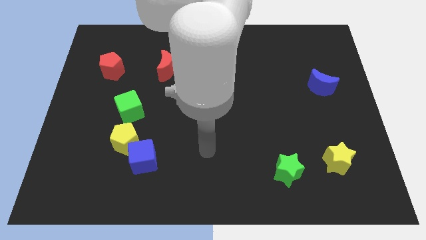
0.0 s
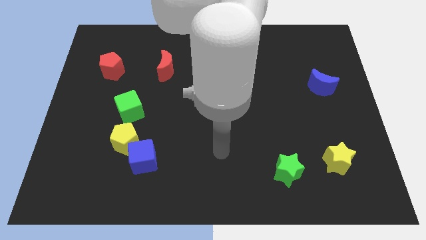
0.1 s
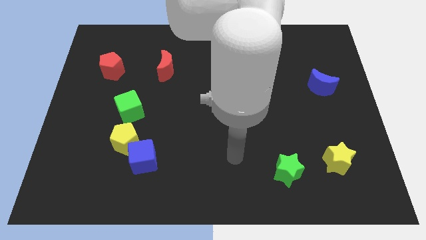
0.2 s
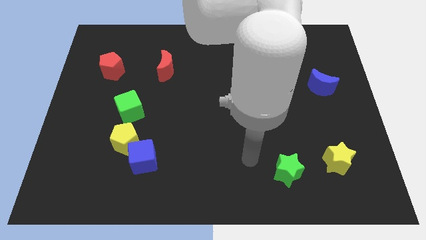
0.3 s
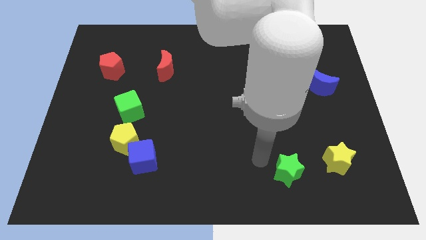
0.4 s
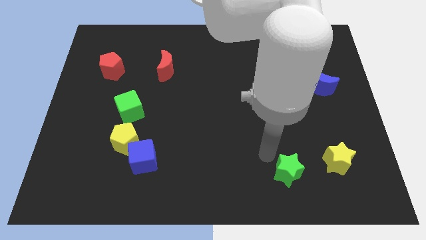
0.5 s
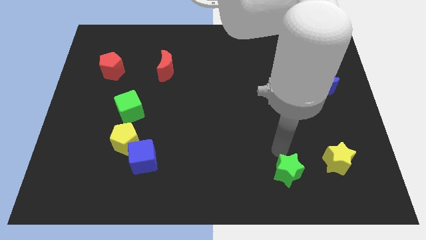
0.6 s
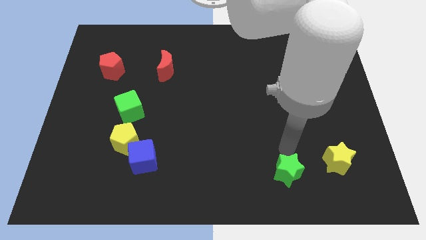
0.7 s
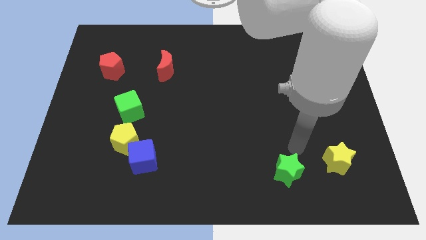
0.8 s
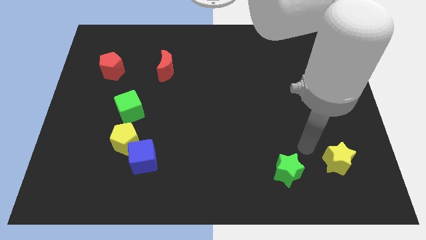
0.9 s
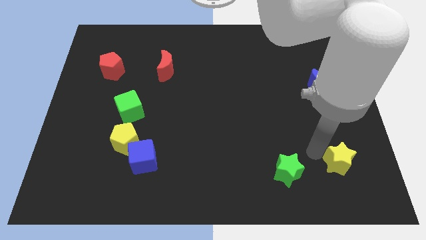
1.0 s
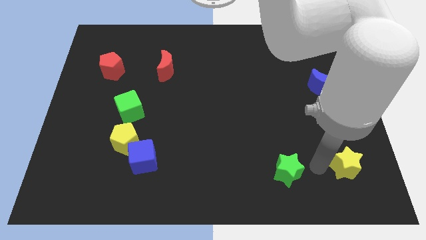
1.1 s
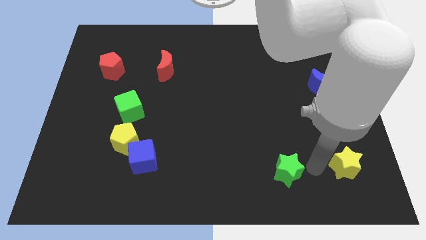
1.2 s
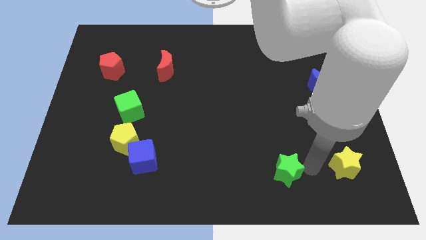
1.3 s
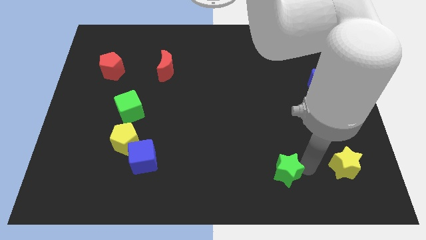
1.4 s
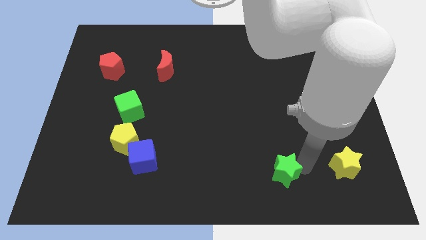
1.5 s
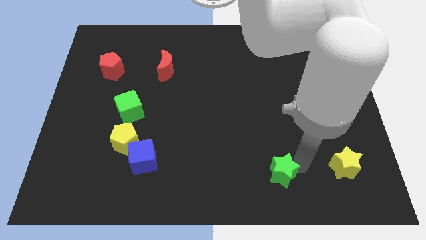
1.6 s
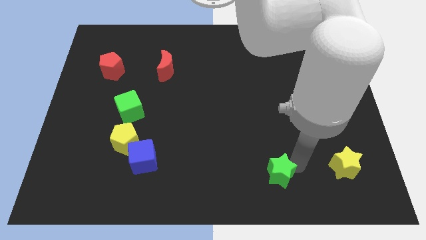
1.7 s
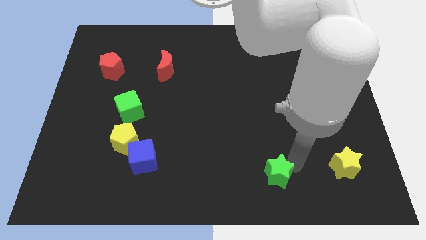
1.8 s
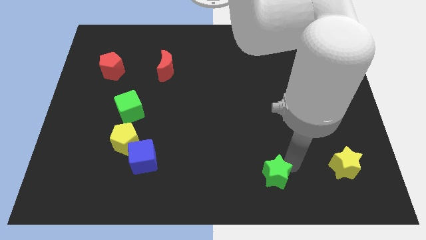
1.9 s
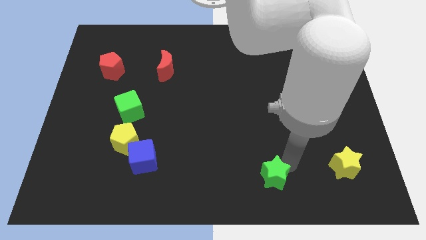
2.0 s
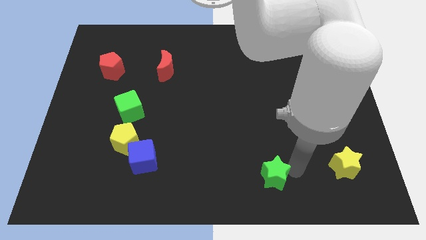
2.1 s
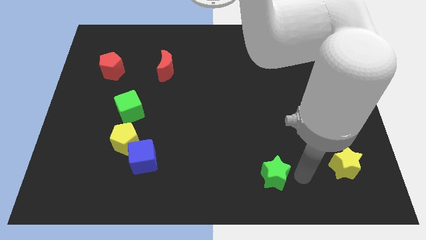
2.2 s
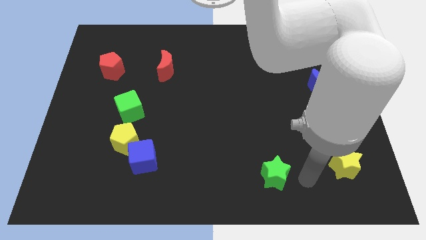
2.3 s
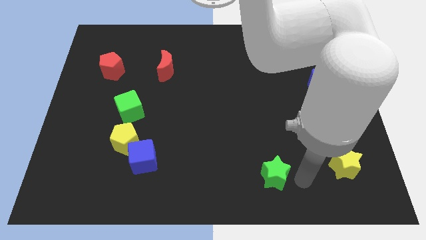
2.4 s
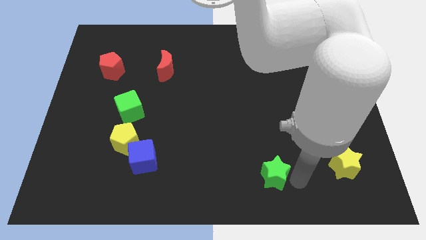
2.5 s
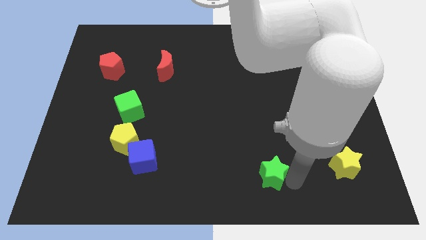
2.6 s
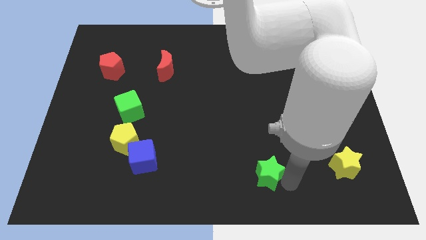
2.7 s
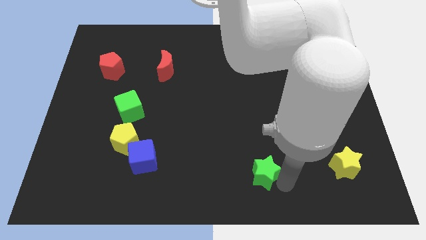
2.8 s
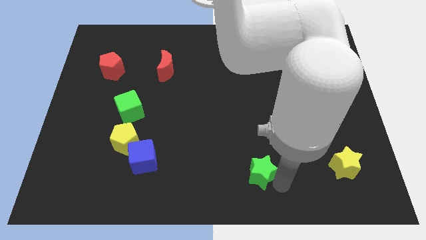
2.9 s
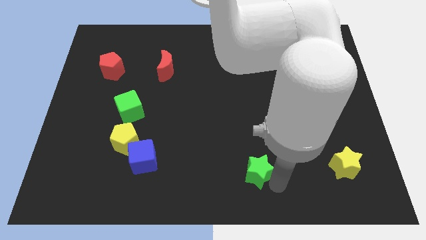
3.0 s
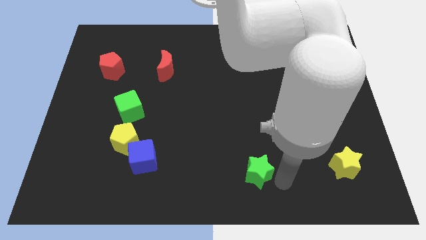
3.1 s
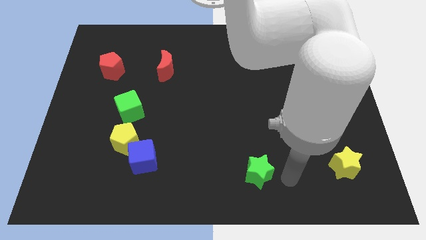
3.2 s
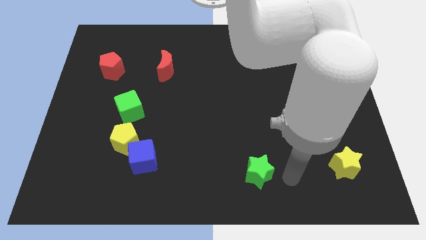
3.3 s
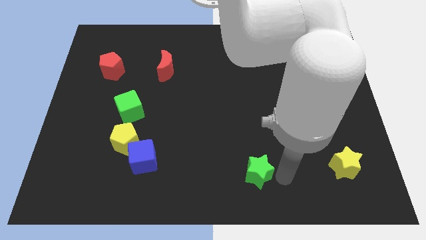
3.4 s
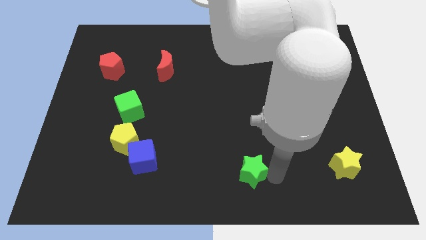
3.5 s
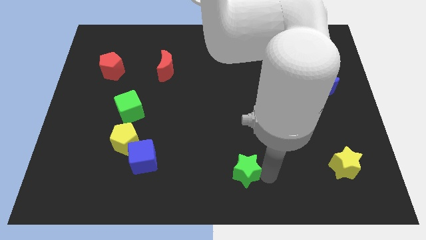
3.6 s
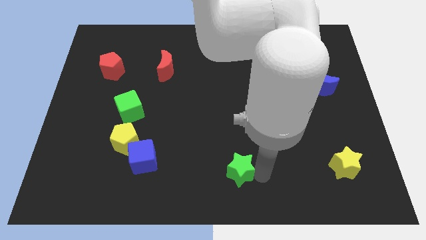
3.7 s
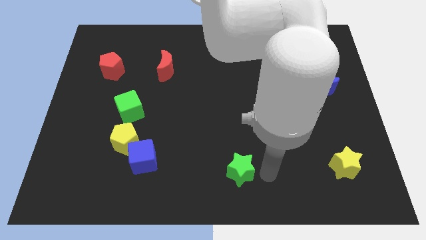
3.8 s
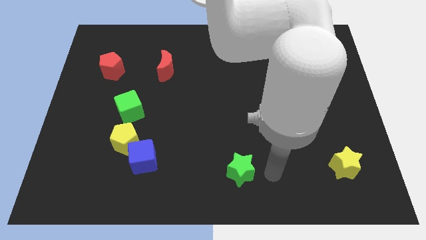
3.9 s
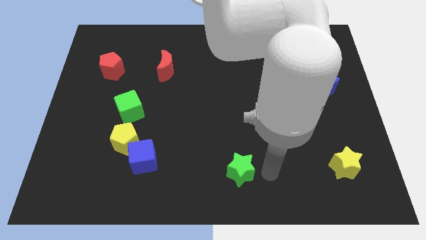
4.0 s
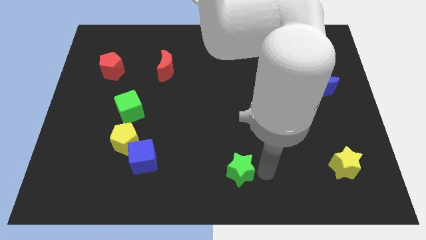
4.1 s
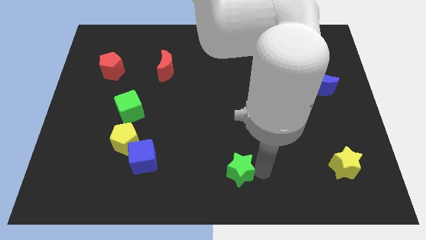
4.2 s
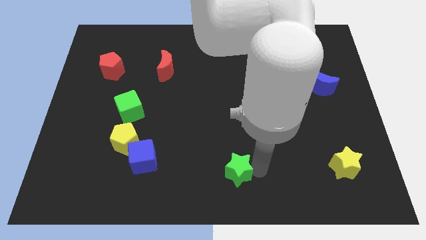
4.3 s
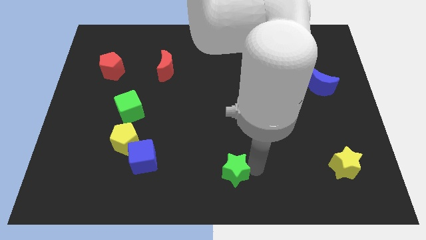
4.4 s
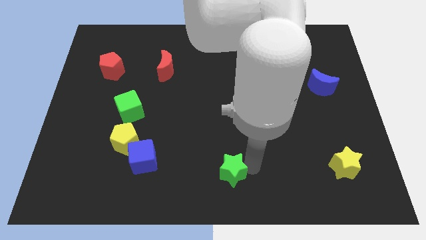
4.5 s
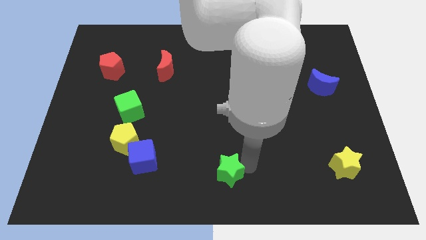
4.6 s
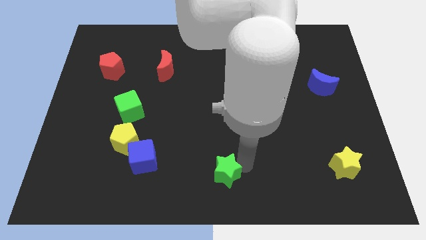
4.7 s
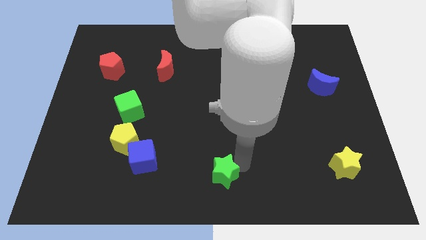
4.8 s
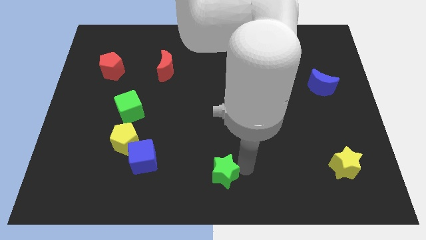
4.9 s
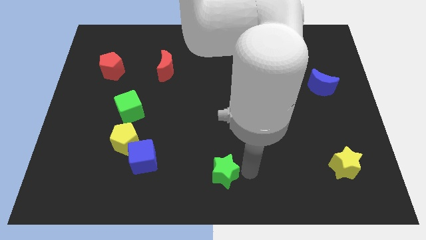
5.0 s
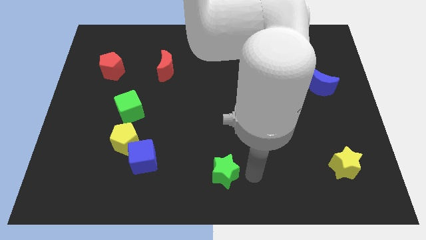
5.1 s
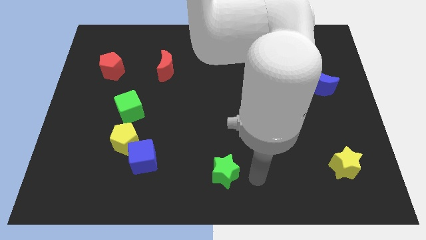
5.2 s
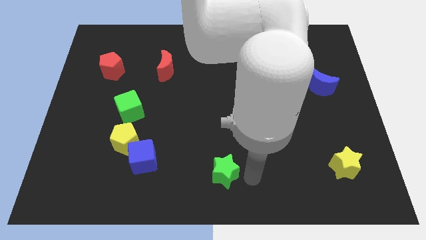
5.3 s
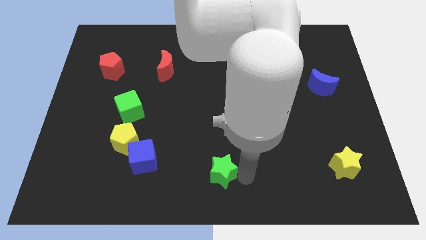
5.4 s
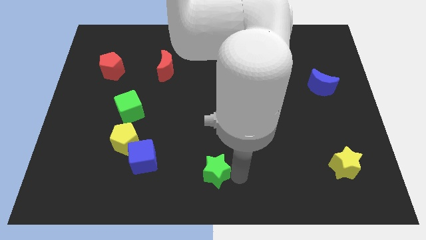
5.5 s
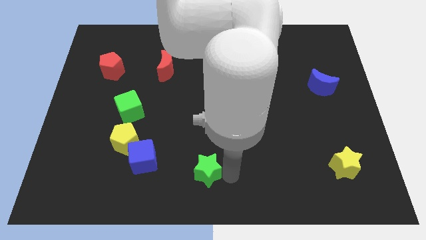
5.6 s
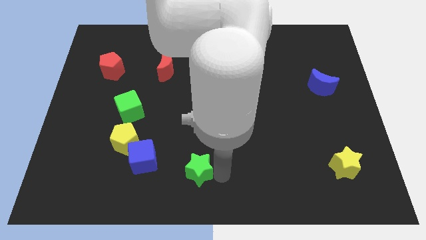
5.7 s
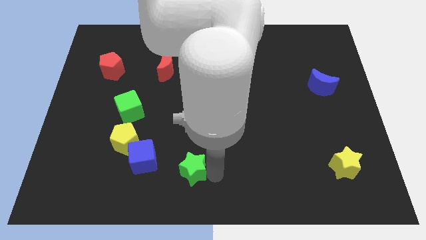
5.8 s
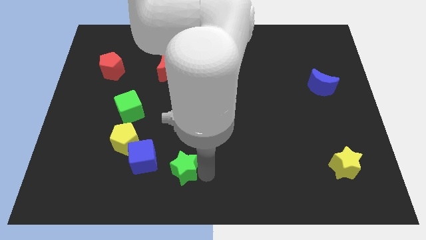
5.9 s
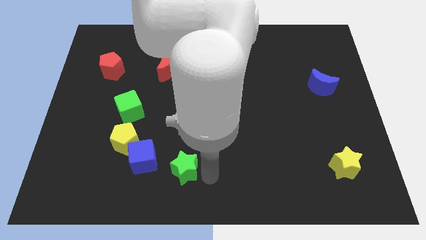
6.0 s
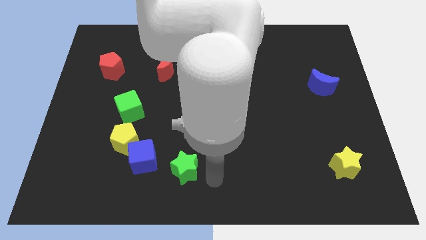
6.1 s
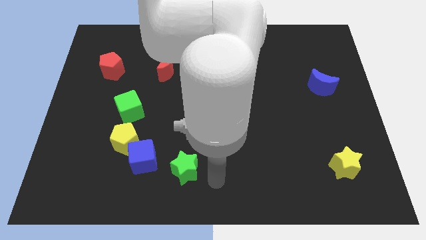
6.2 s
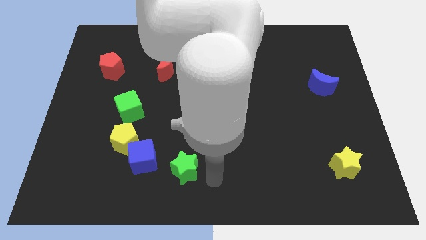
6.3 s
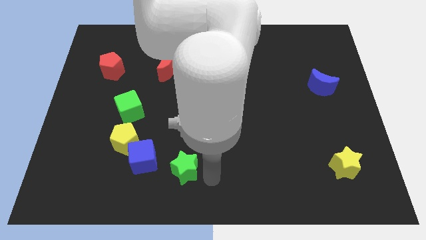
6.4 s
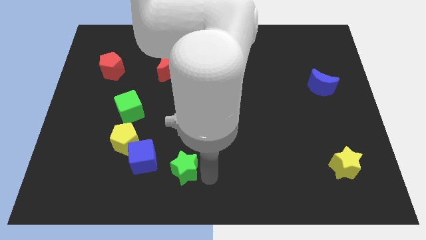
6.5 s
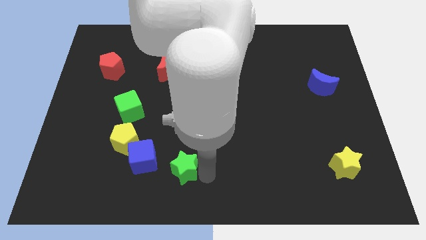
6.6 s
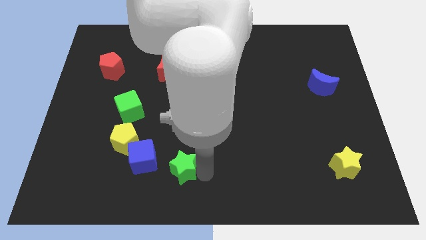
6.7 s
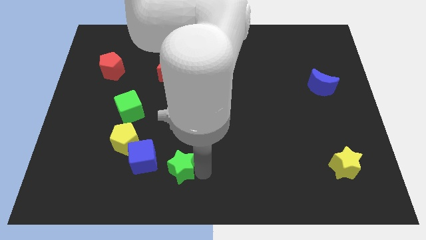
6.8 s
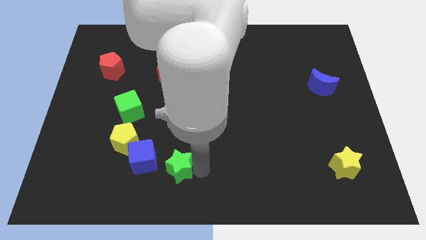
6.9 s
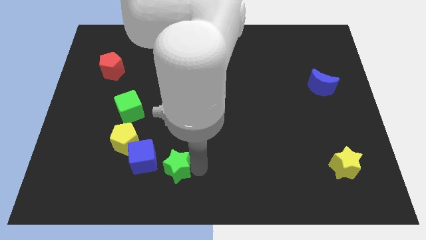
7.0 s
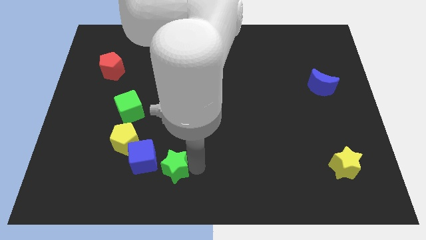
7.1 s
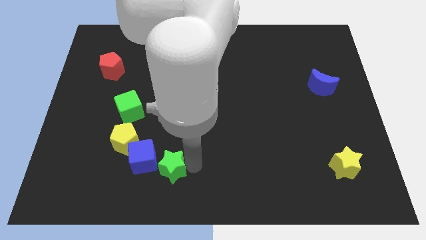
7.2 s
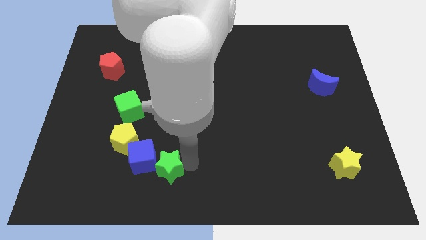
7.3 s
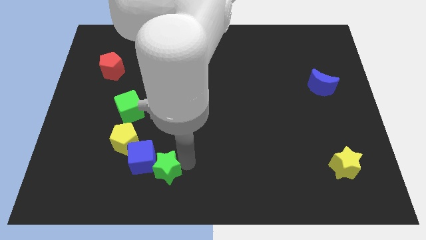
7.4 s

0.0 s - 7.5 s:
push the green star close to the blue cube
